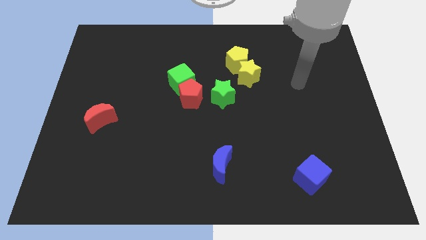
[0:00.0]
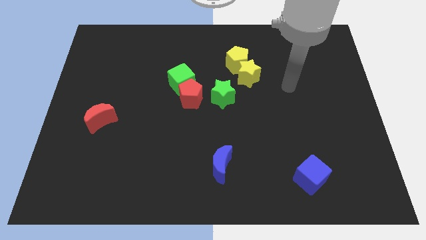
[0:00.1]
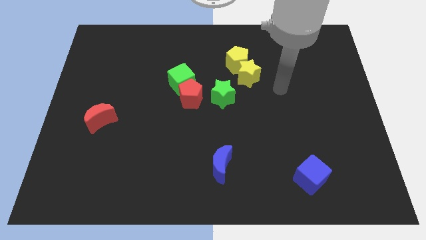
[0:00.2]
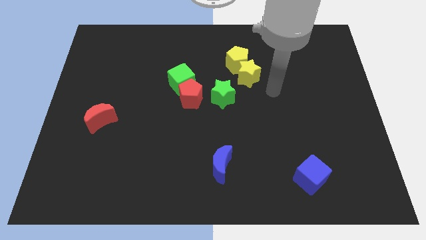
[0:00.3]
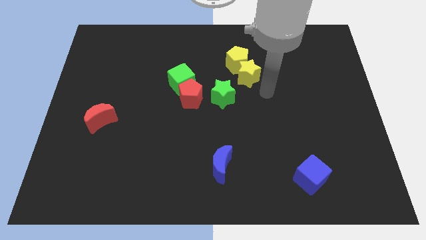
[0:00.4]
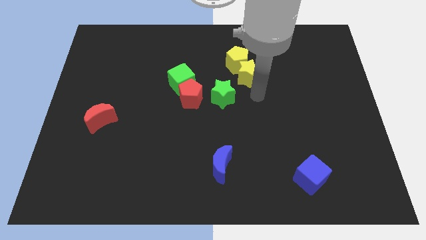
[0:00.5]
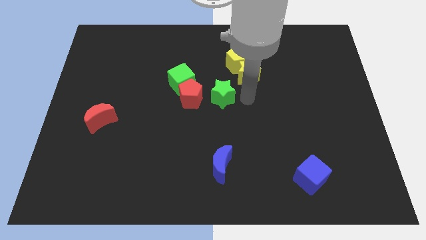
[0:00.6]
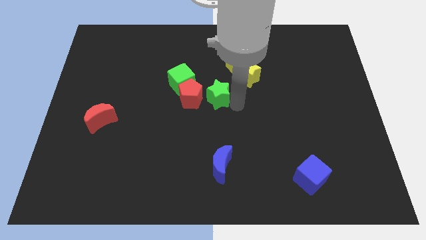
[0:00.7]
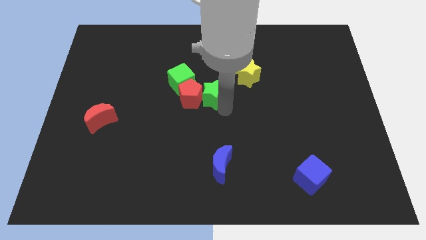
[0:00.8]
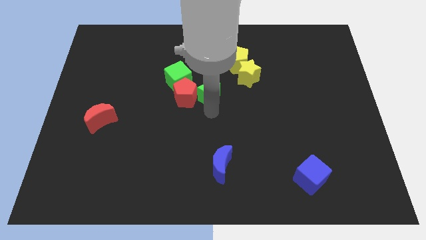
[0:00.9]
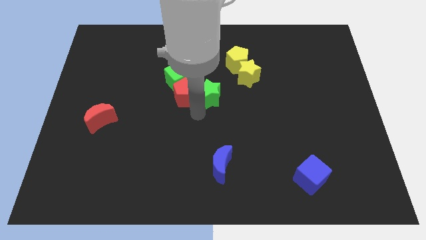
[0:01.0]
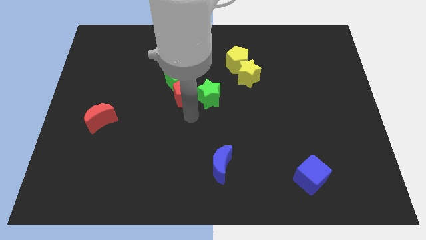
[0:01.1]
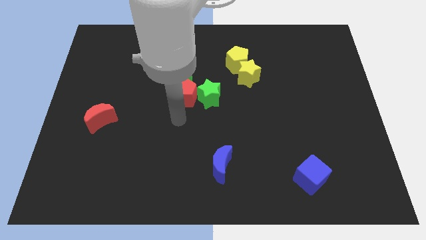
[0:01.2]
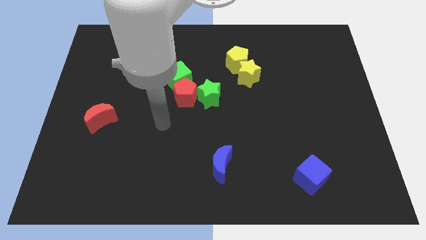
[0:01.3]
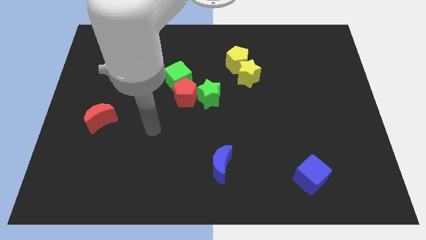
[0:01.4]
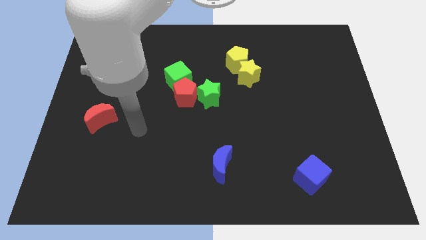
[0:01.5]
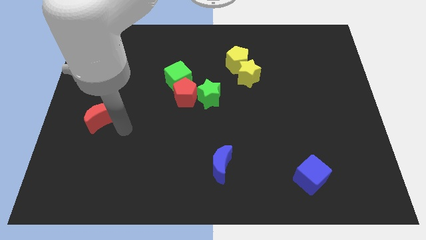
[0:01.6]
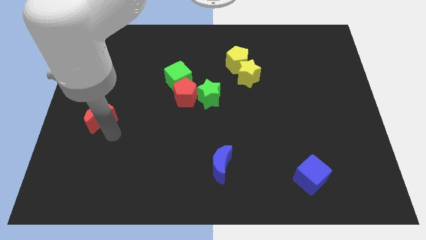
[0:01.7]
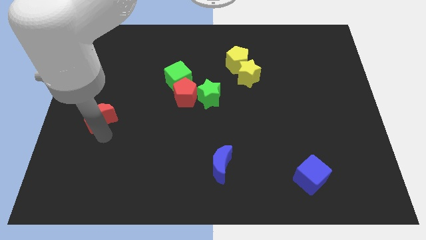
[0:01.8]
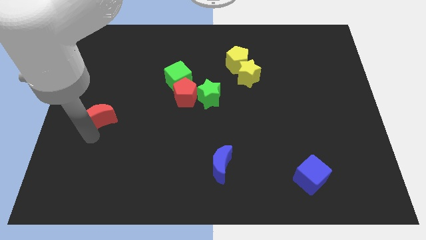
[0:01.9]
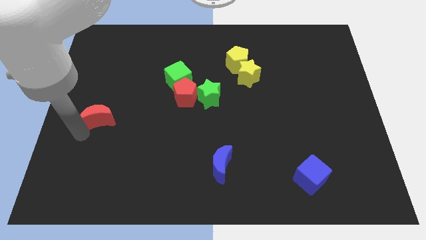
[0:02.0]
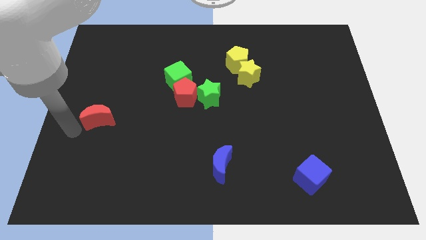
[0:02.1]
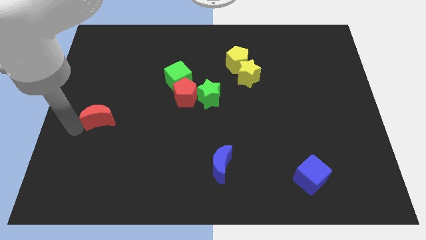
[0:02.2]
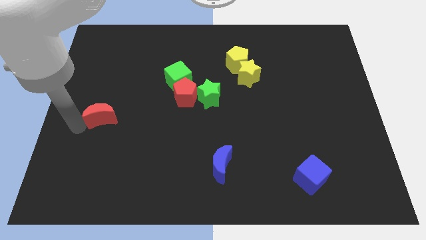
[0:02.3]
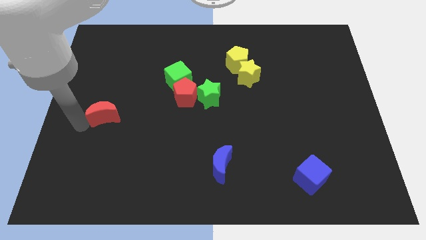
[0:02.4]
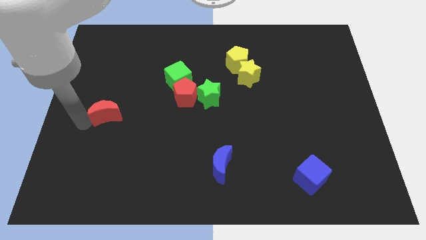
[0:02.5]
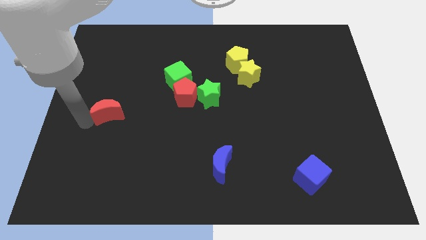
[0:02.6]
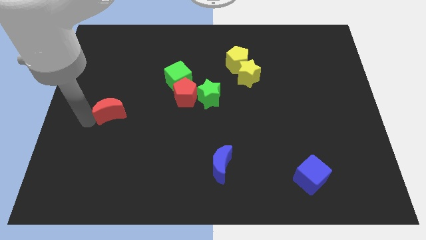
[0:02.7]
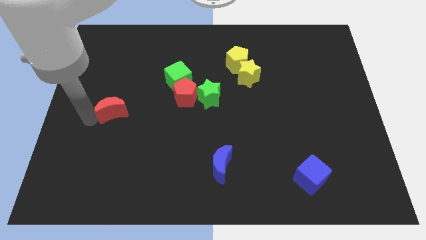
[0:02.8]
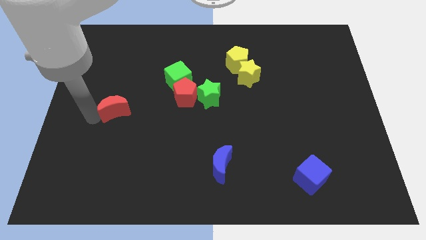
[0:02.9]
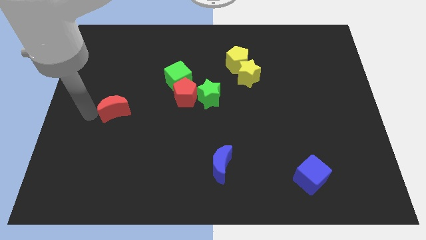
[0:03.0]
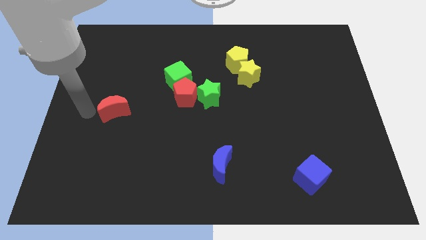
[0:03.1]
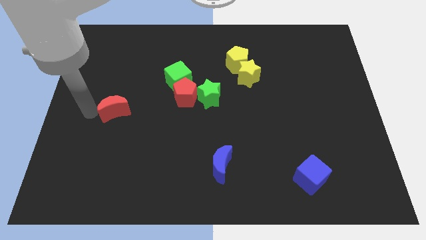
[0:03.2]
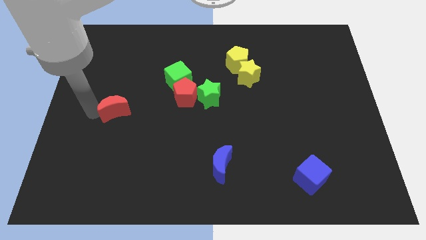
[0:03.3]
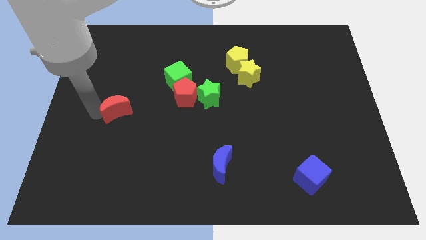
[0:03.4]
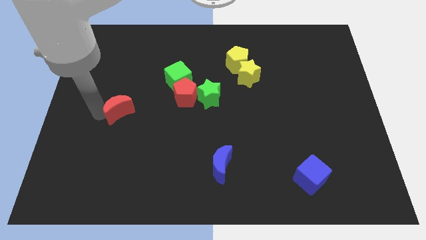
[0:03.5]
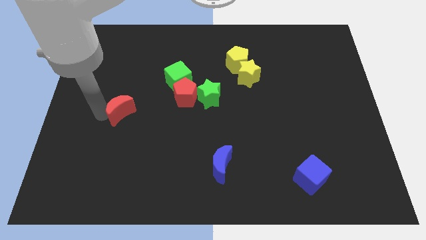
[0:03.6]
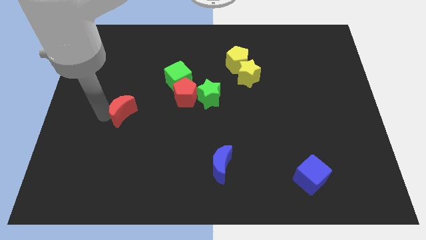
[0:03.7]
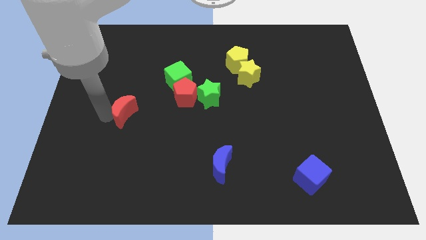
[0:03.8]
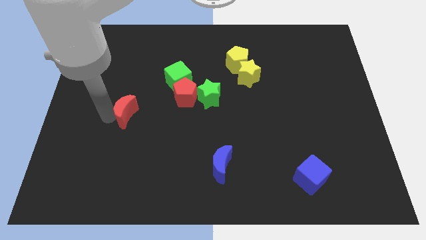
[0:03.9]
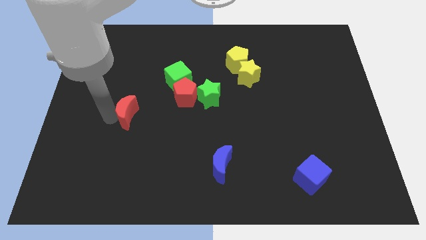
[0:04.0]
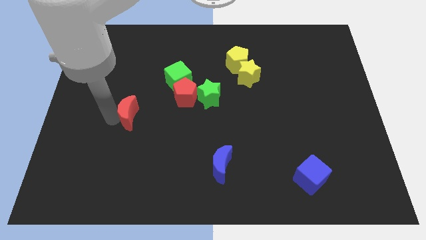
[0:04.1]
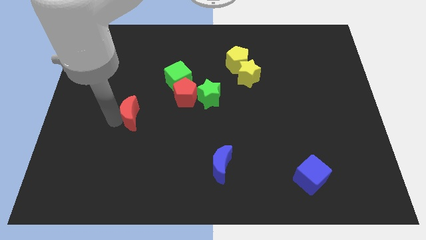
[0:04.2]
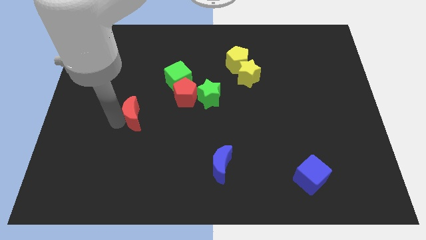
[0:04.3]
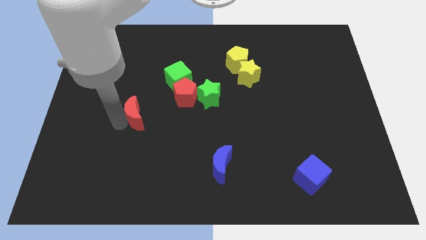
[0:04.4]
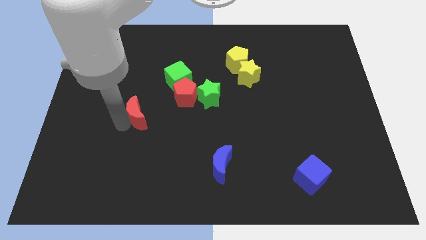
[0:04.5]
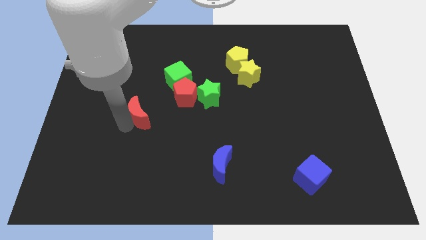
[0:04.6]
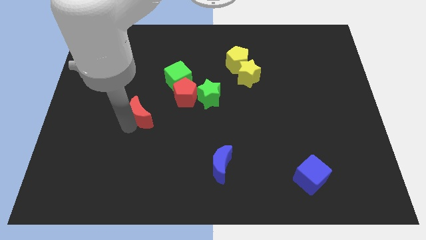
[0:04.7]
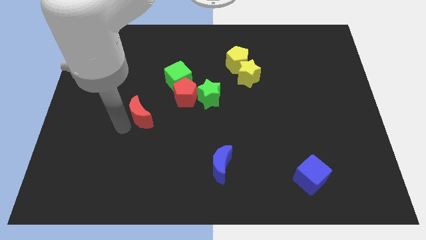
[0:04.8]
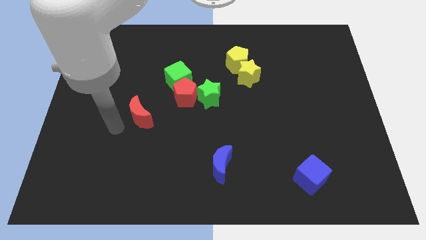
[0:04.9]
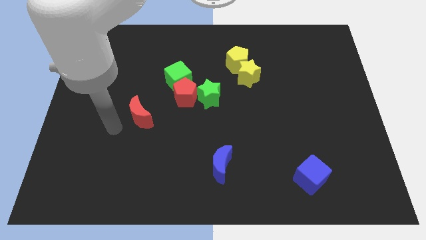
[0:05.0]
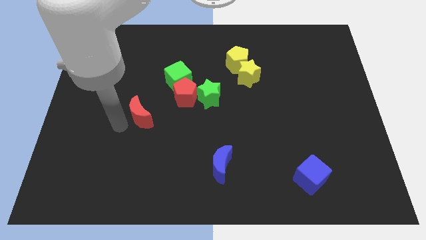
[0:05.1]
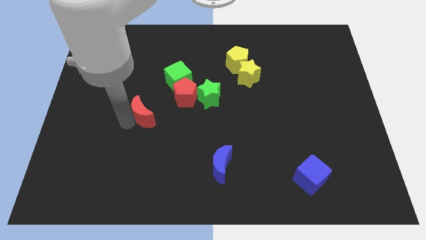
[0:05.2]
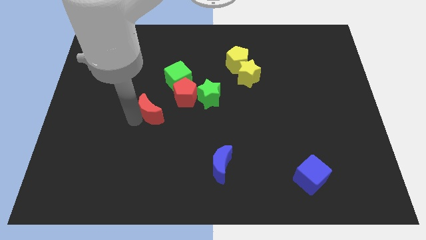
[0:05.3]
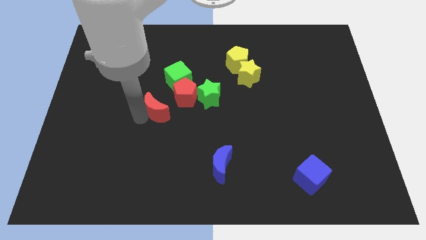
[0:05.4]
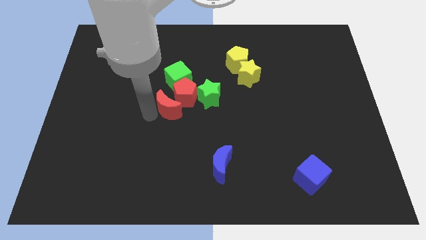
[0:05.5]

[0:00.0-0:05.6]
put the red moon close to the red pentagon
